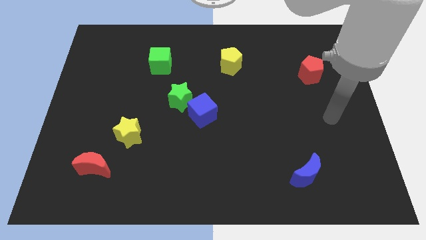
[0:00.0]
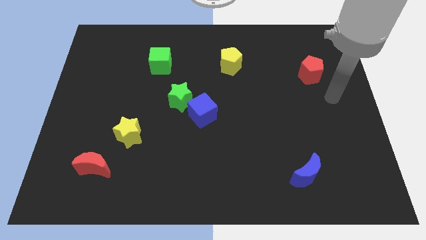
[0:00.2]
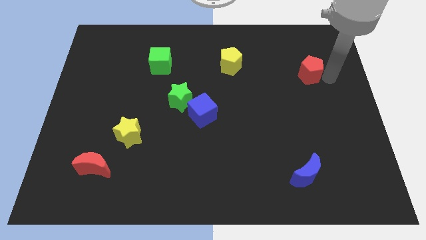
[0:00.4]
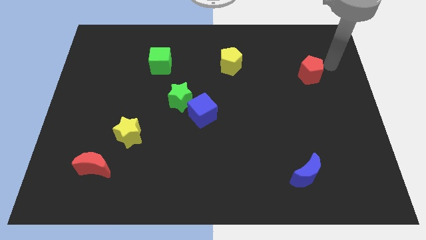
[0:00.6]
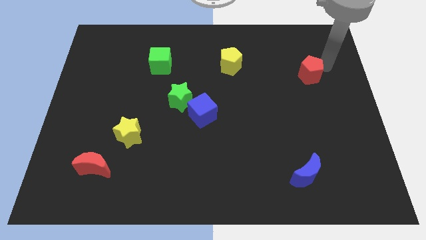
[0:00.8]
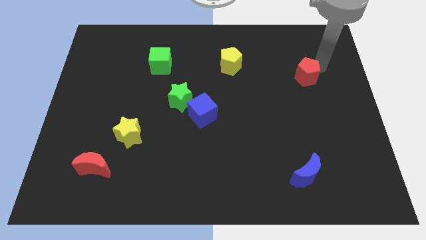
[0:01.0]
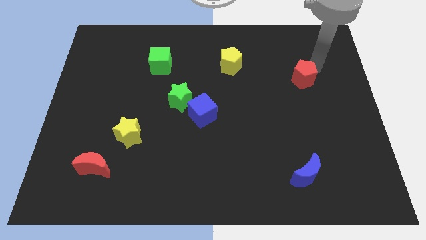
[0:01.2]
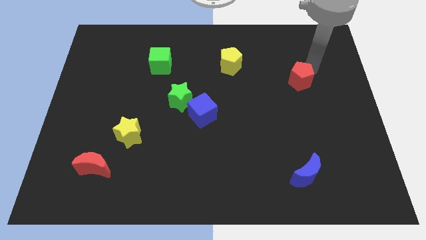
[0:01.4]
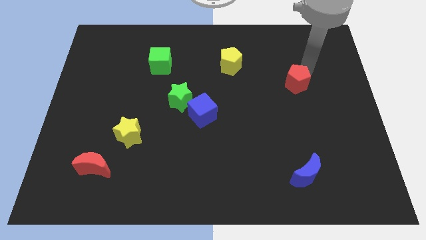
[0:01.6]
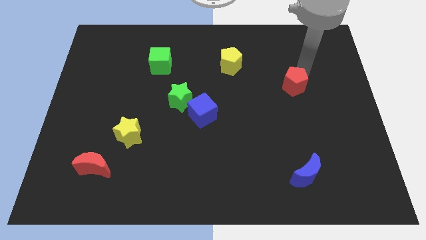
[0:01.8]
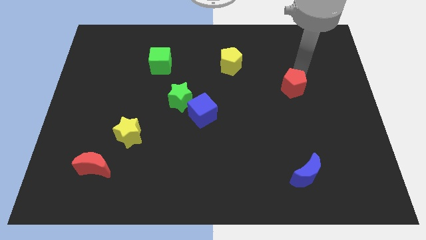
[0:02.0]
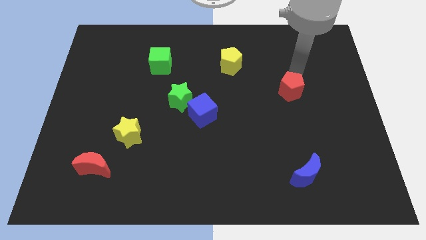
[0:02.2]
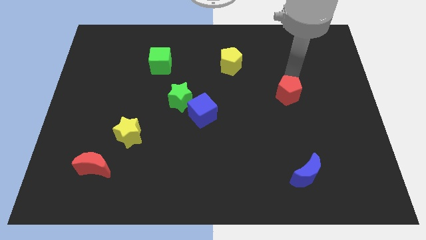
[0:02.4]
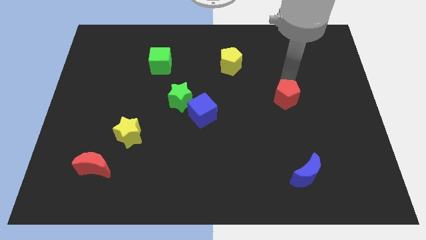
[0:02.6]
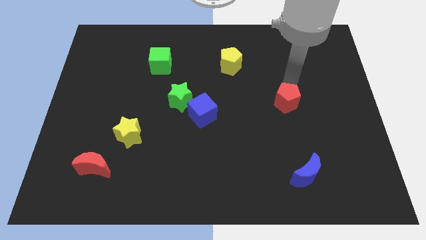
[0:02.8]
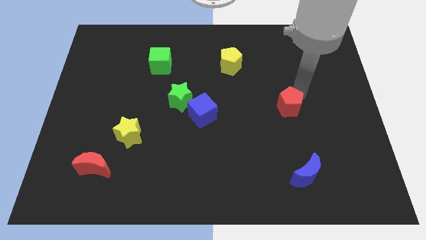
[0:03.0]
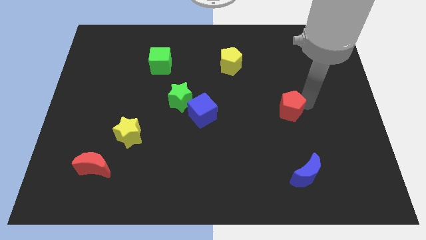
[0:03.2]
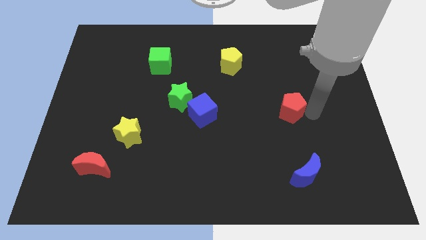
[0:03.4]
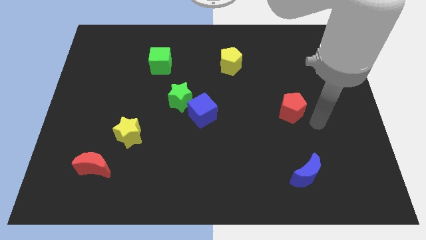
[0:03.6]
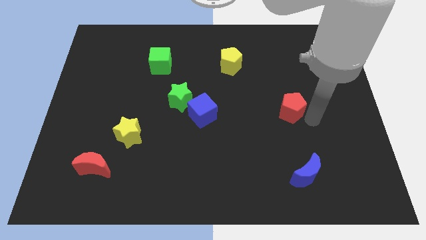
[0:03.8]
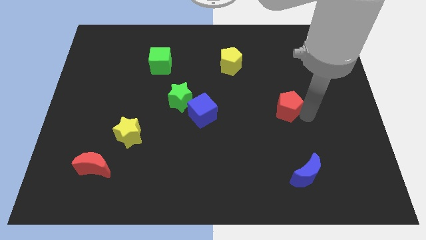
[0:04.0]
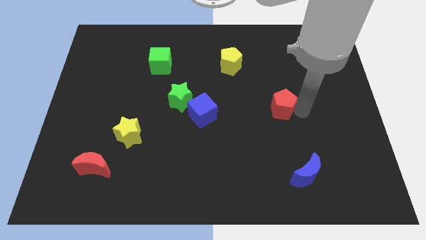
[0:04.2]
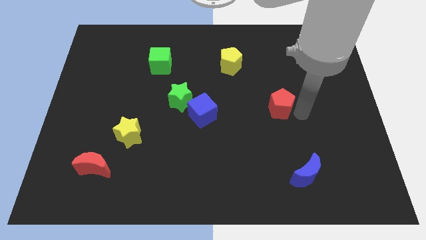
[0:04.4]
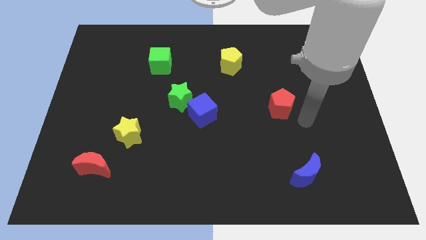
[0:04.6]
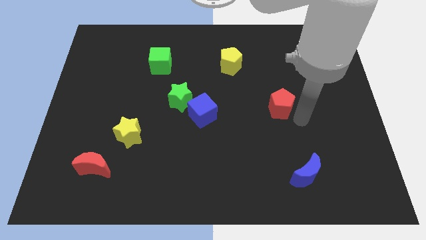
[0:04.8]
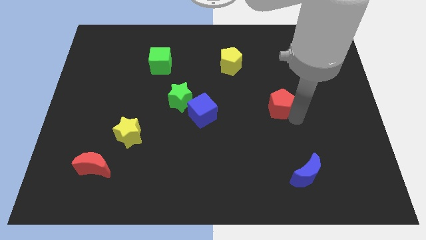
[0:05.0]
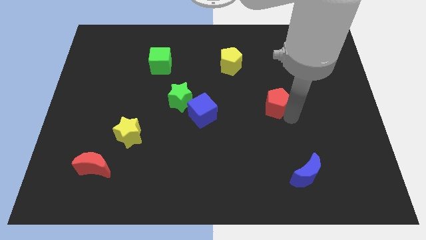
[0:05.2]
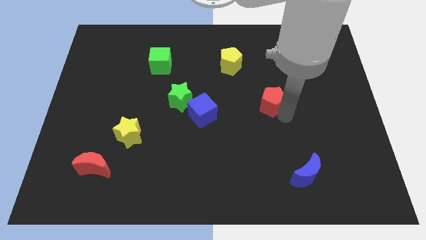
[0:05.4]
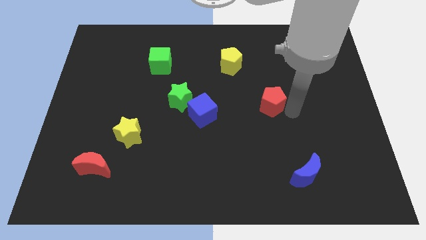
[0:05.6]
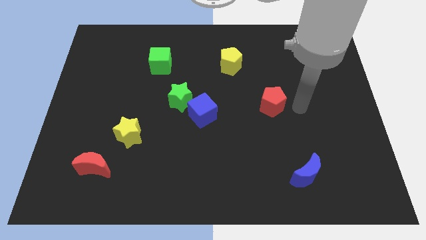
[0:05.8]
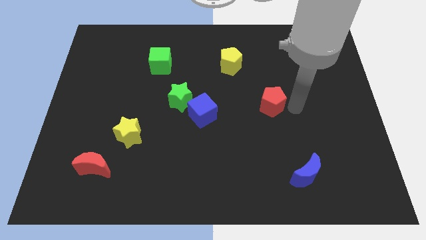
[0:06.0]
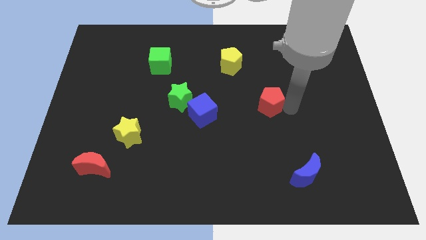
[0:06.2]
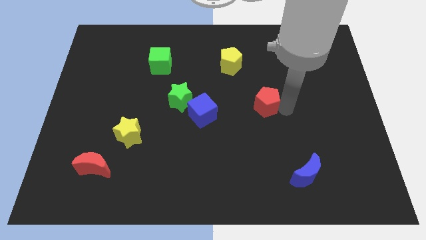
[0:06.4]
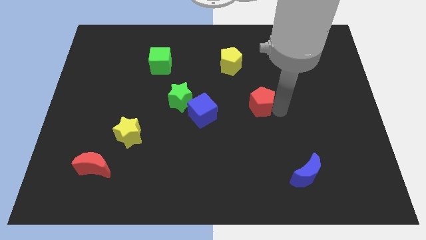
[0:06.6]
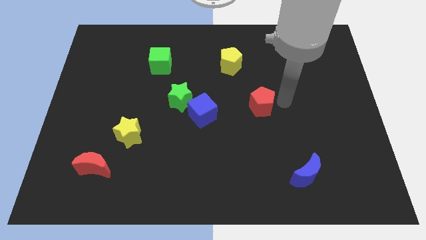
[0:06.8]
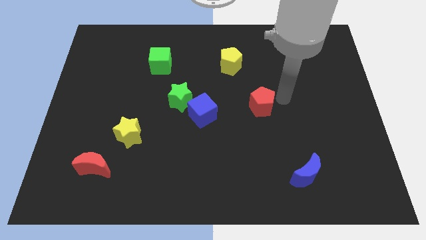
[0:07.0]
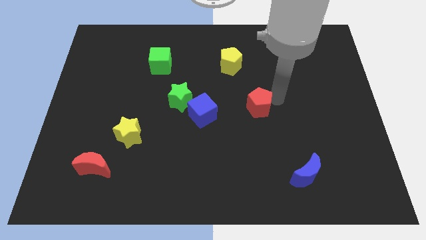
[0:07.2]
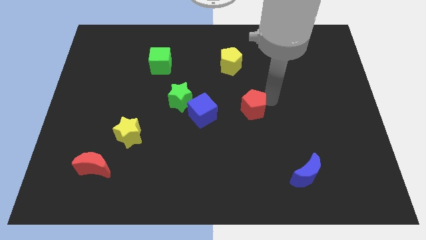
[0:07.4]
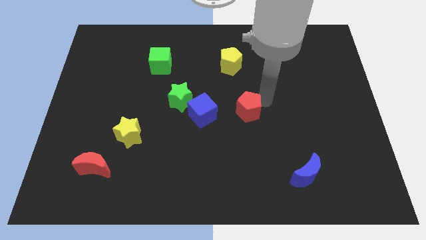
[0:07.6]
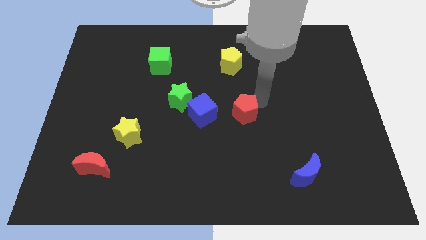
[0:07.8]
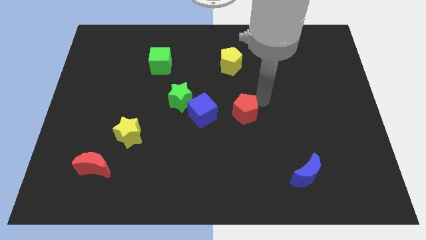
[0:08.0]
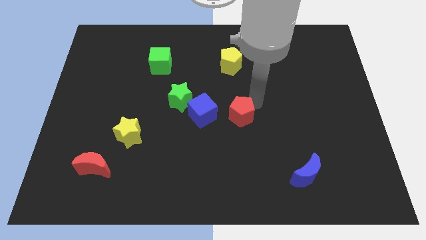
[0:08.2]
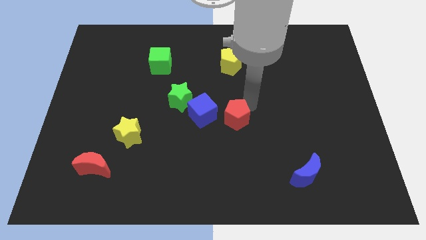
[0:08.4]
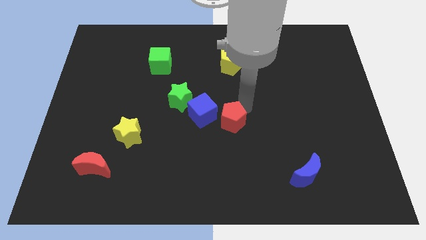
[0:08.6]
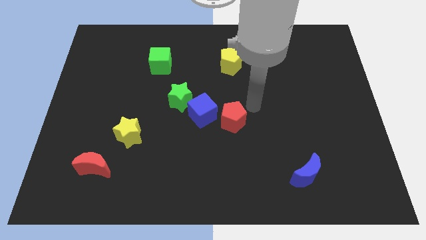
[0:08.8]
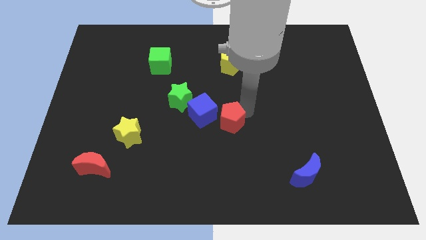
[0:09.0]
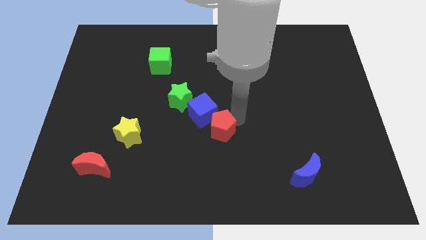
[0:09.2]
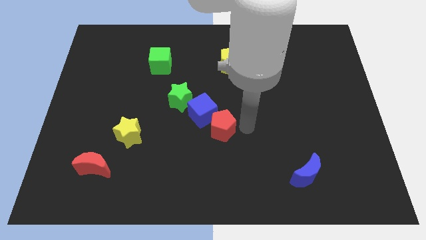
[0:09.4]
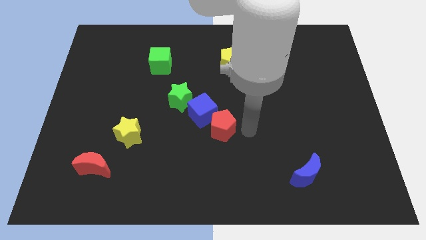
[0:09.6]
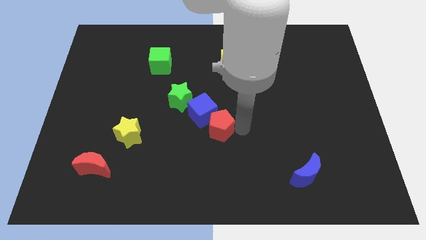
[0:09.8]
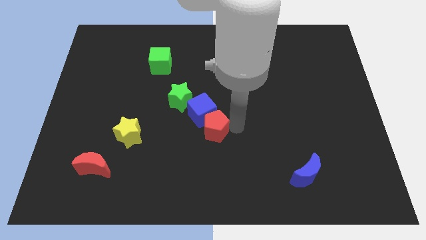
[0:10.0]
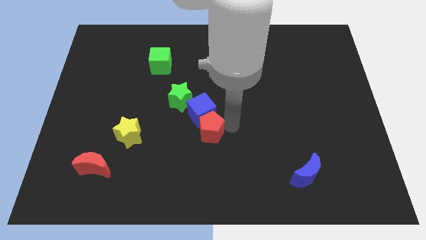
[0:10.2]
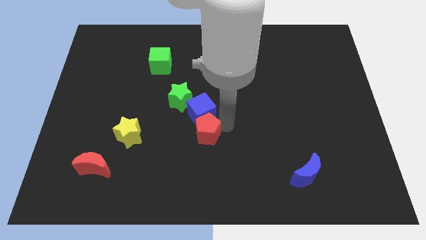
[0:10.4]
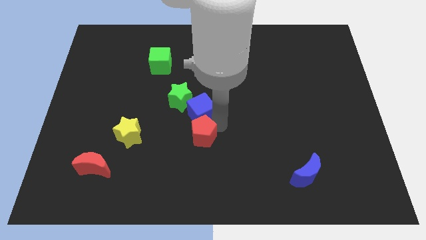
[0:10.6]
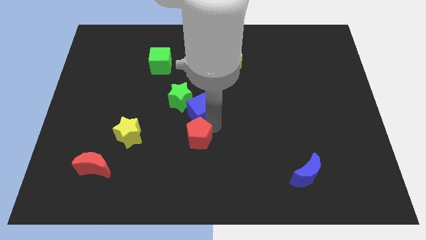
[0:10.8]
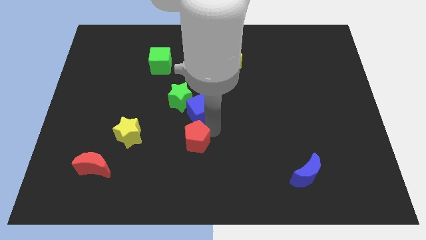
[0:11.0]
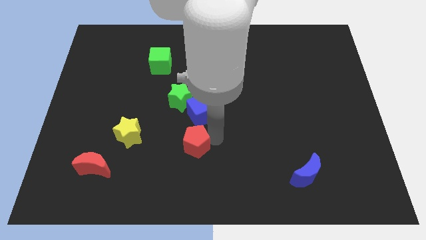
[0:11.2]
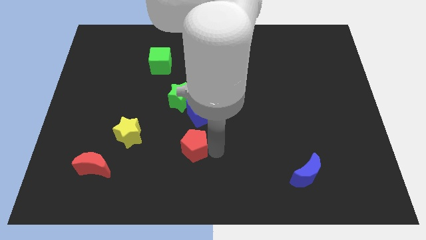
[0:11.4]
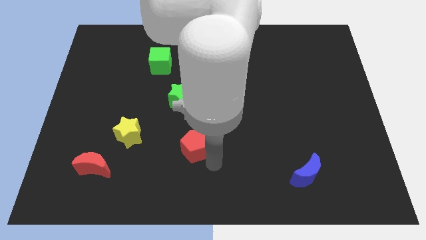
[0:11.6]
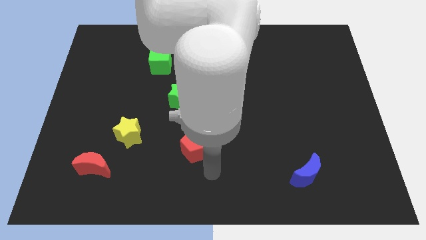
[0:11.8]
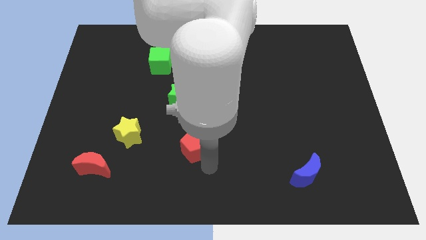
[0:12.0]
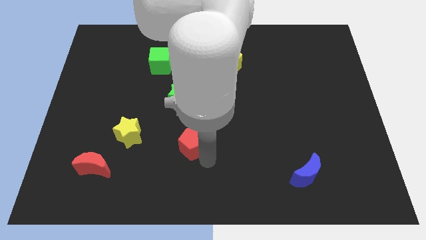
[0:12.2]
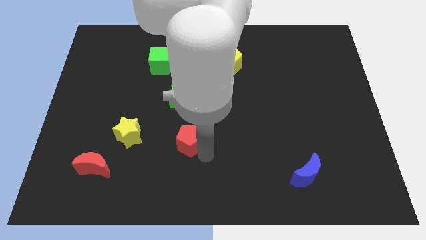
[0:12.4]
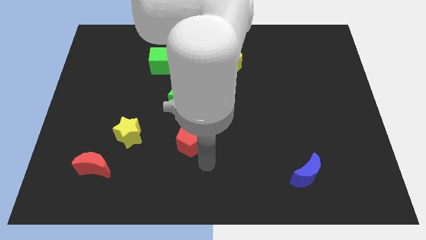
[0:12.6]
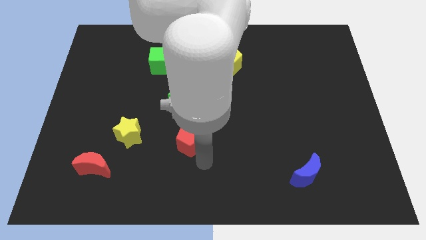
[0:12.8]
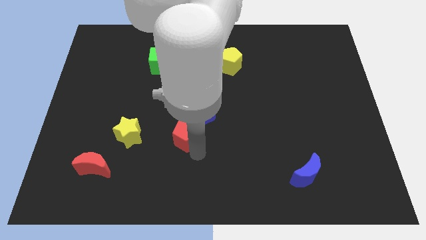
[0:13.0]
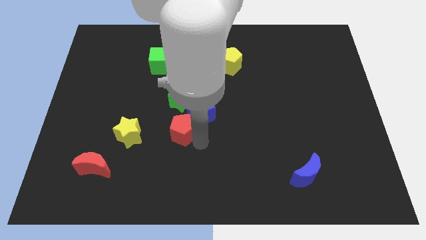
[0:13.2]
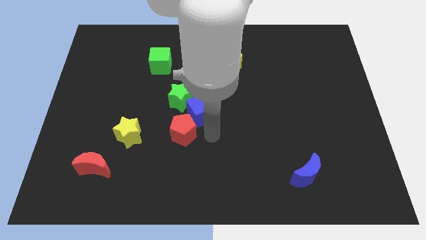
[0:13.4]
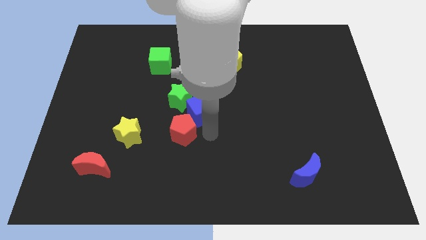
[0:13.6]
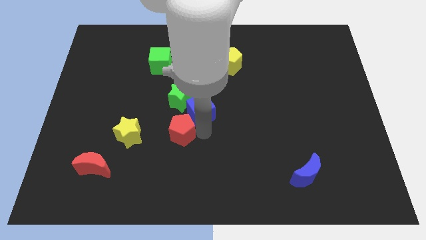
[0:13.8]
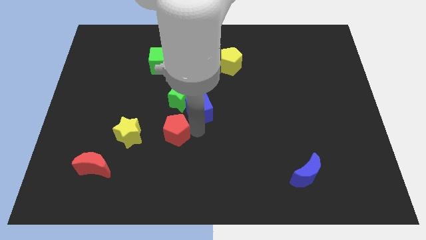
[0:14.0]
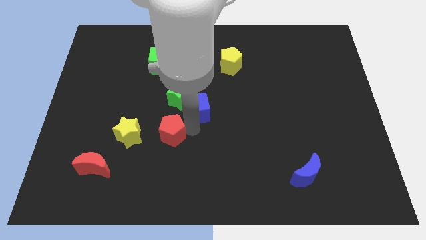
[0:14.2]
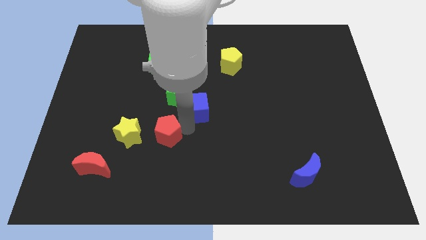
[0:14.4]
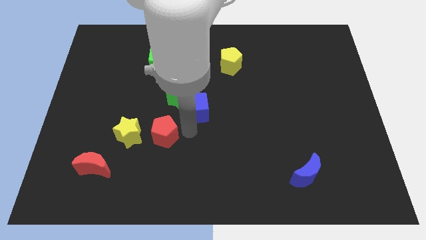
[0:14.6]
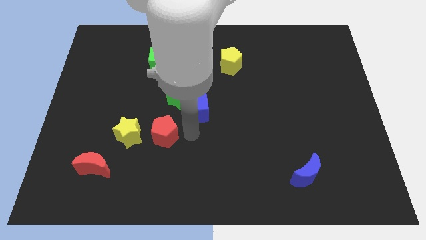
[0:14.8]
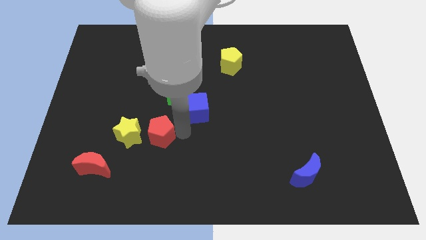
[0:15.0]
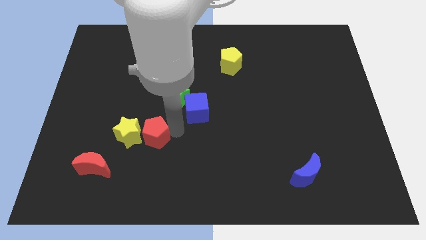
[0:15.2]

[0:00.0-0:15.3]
push the red pentagon close to the yellow star
